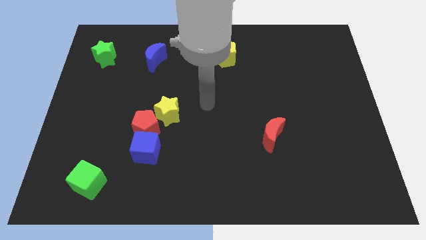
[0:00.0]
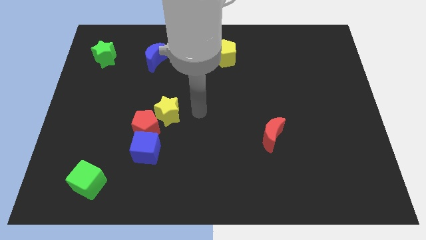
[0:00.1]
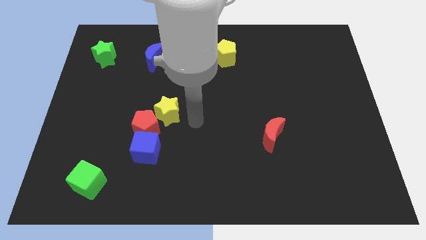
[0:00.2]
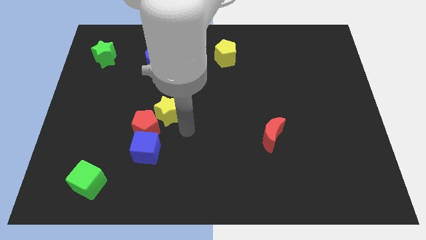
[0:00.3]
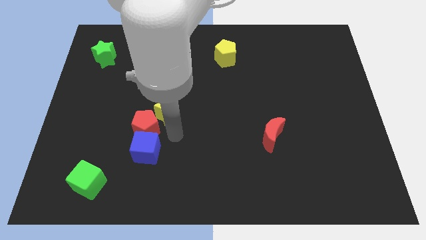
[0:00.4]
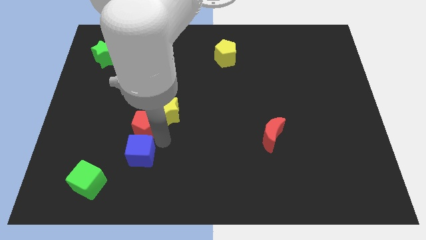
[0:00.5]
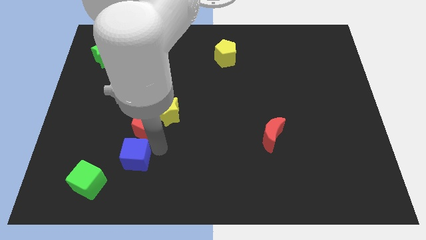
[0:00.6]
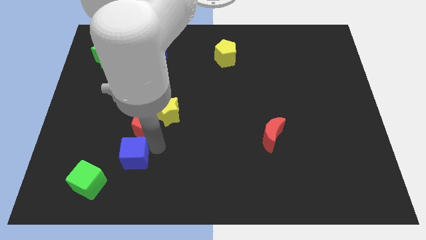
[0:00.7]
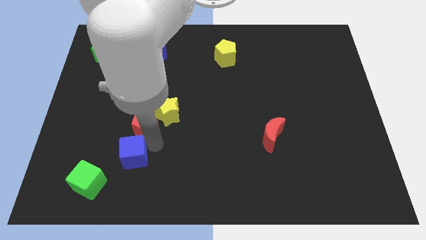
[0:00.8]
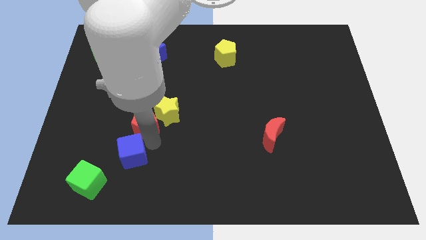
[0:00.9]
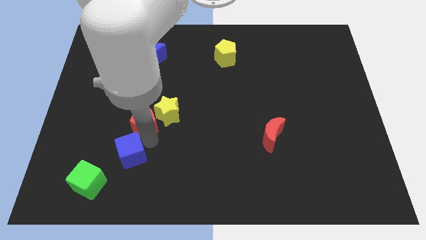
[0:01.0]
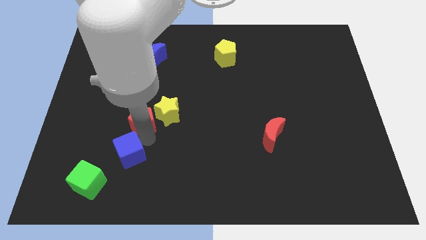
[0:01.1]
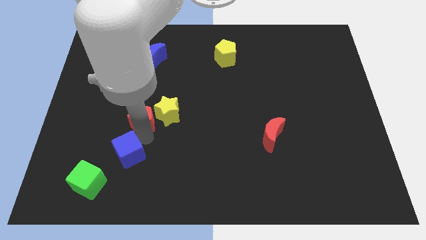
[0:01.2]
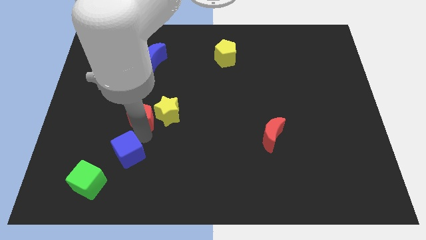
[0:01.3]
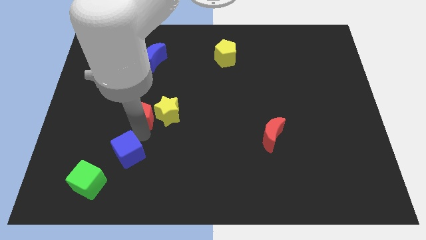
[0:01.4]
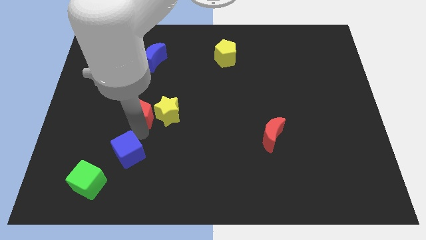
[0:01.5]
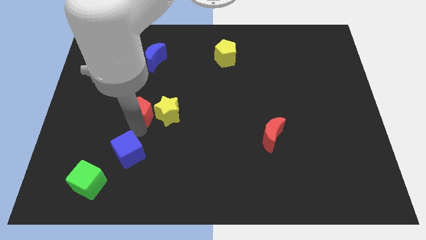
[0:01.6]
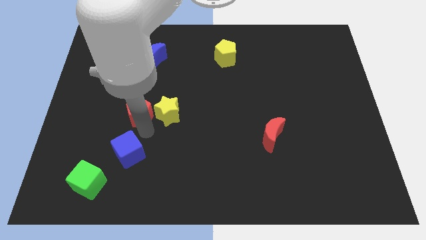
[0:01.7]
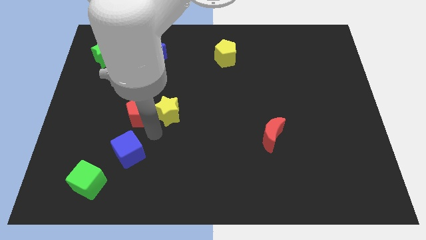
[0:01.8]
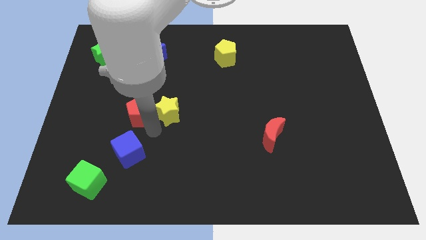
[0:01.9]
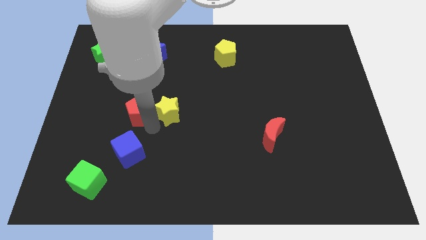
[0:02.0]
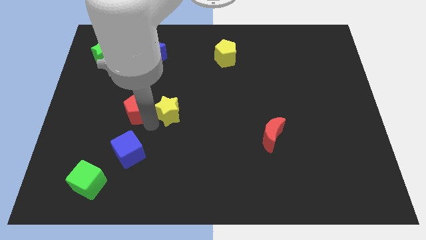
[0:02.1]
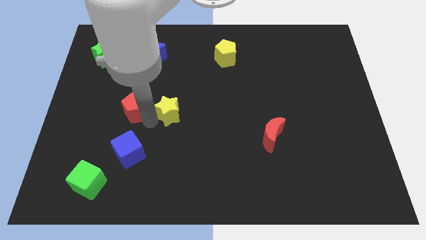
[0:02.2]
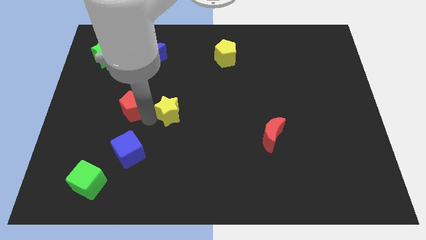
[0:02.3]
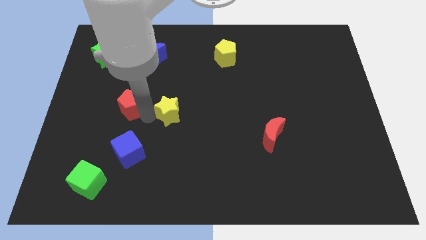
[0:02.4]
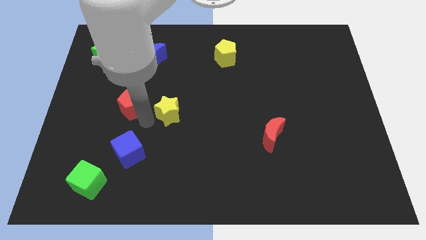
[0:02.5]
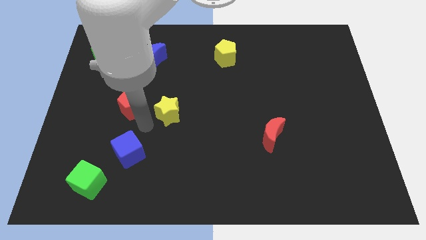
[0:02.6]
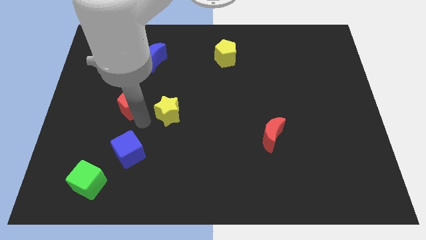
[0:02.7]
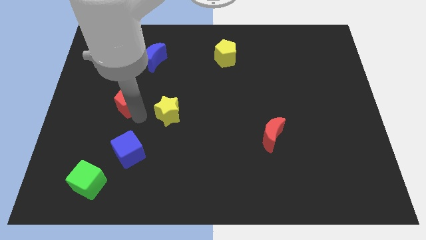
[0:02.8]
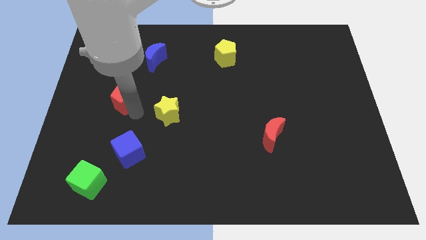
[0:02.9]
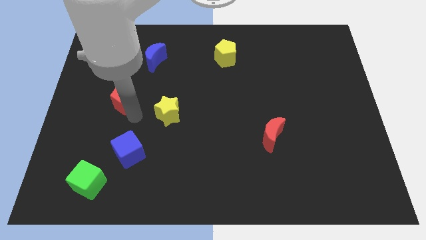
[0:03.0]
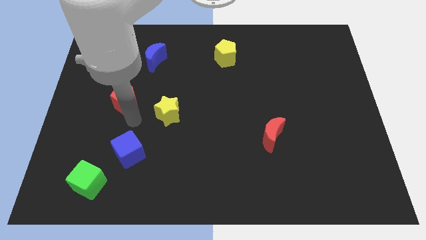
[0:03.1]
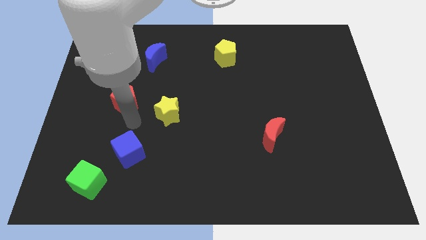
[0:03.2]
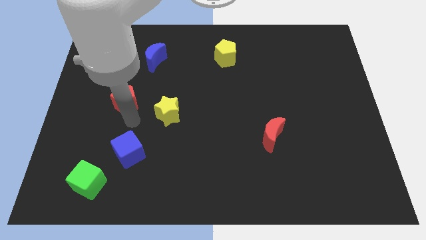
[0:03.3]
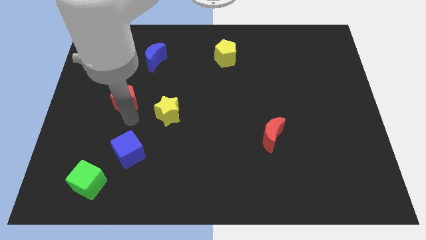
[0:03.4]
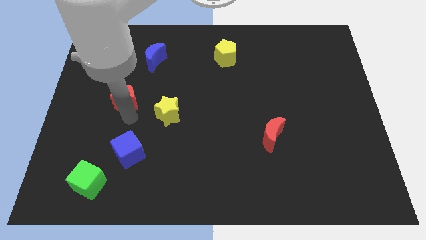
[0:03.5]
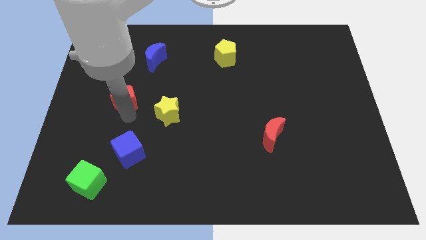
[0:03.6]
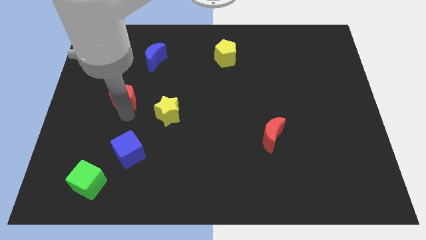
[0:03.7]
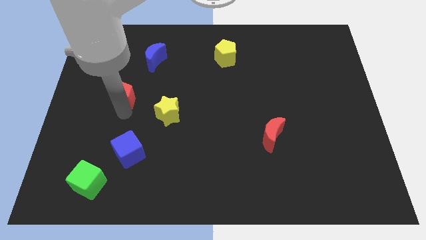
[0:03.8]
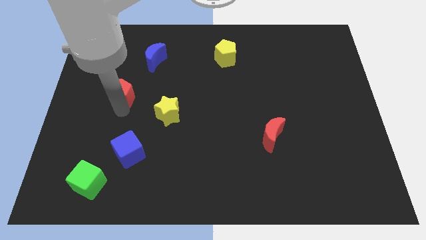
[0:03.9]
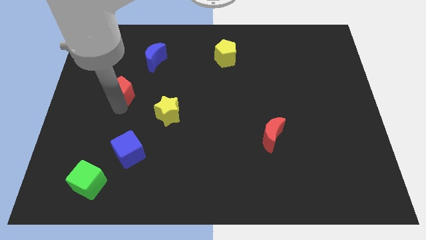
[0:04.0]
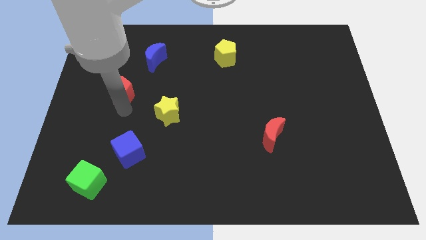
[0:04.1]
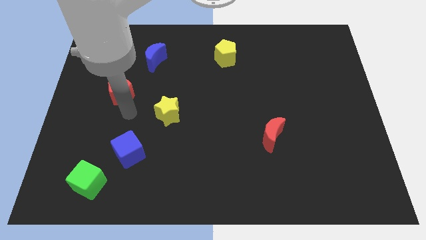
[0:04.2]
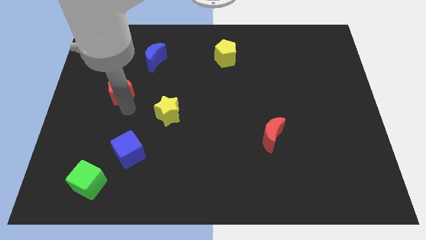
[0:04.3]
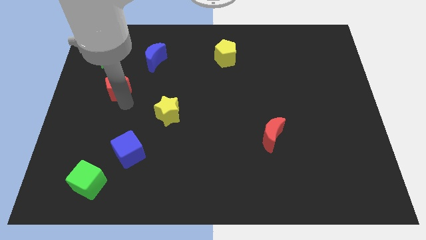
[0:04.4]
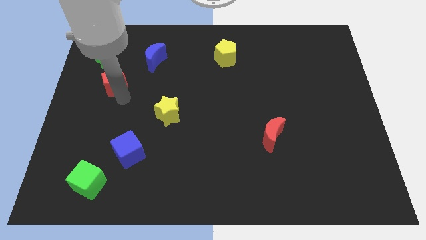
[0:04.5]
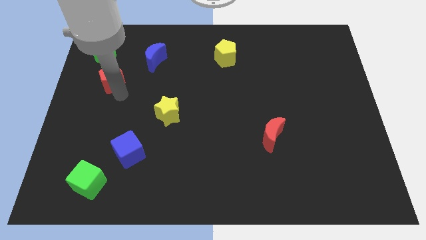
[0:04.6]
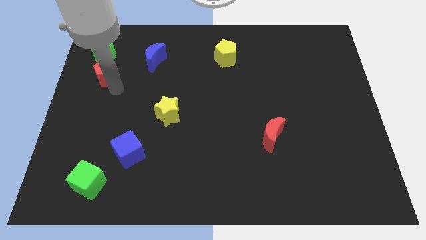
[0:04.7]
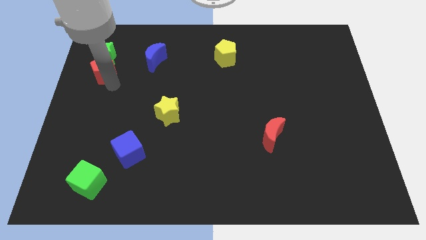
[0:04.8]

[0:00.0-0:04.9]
push the red pentagon close to the green star

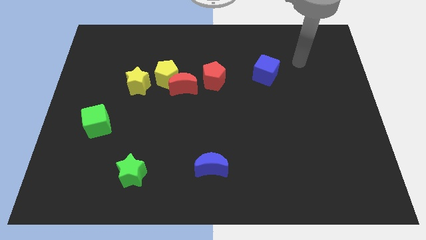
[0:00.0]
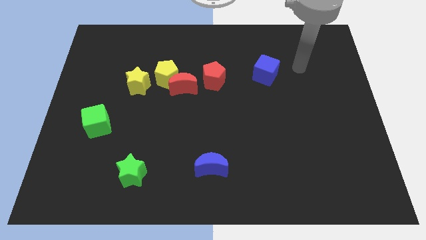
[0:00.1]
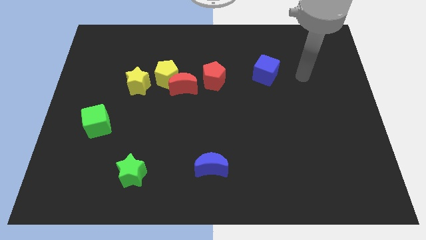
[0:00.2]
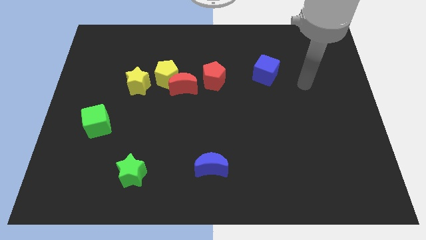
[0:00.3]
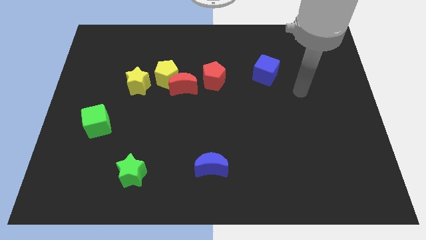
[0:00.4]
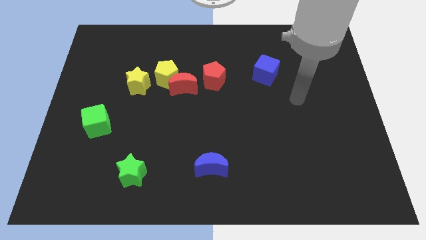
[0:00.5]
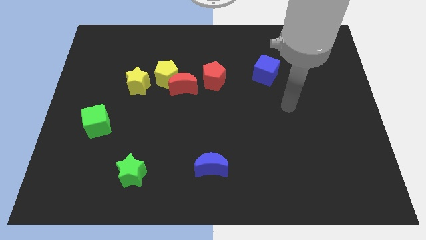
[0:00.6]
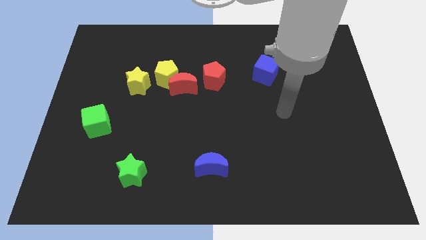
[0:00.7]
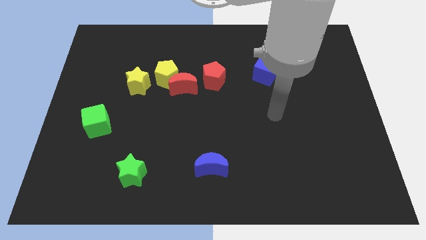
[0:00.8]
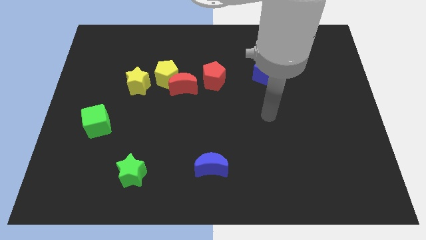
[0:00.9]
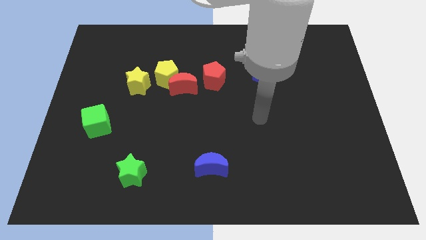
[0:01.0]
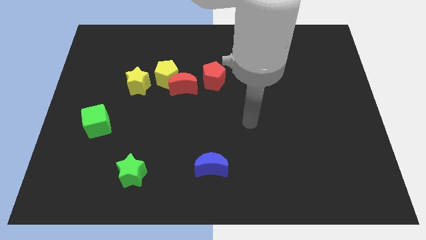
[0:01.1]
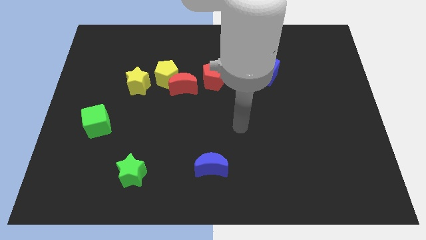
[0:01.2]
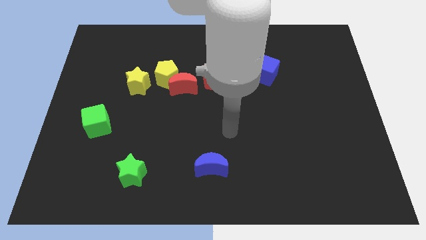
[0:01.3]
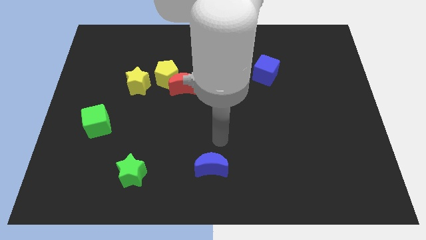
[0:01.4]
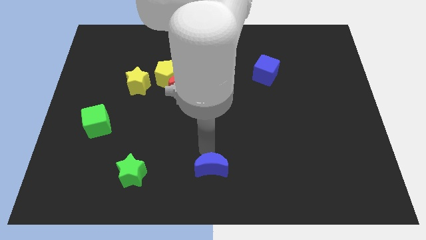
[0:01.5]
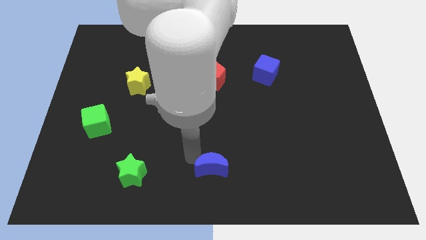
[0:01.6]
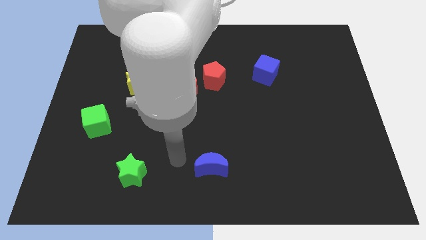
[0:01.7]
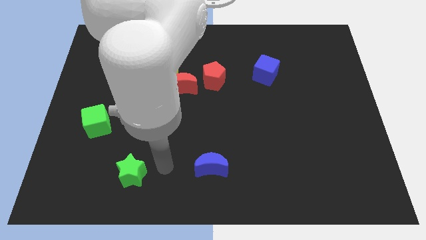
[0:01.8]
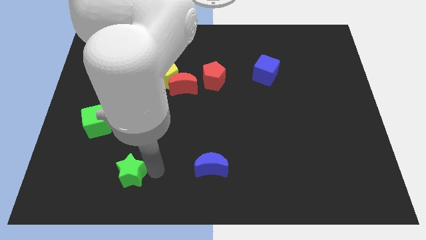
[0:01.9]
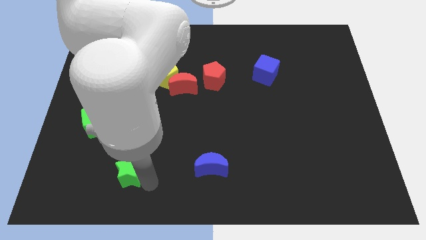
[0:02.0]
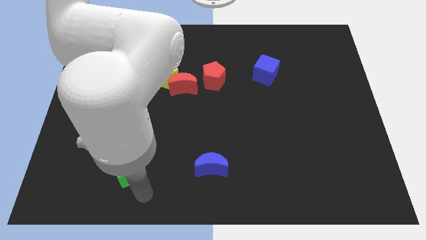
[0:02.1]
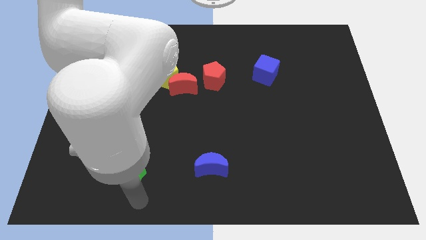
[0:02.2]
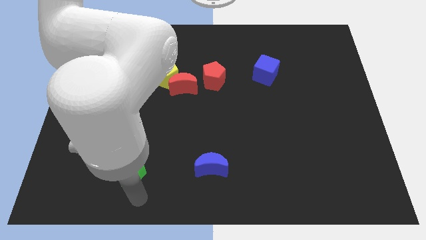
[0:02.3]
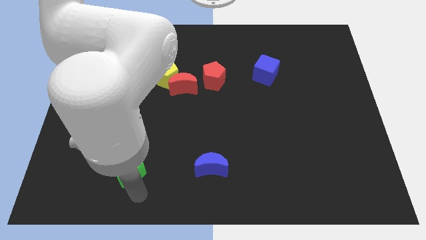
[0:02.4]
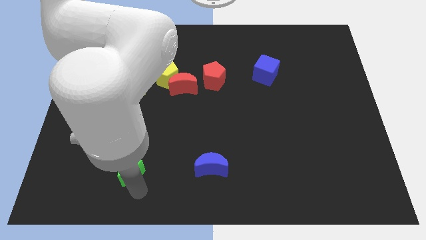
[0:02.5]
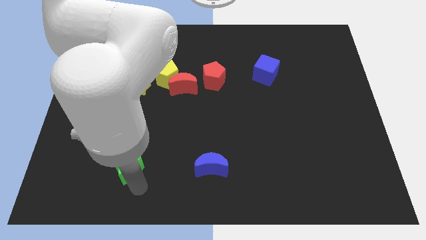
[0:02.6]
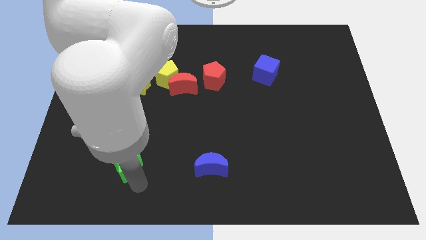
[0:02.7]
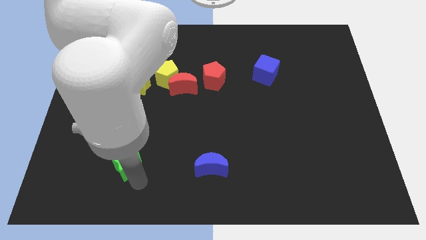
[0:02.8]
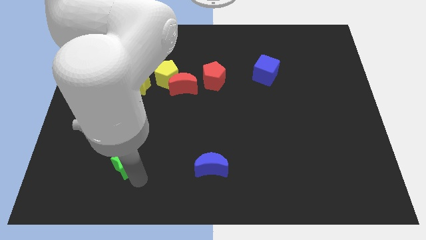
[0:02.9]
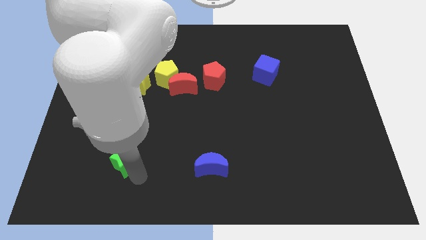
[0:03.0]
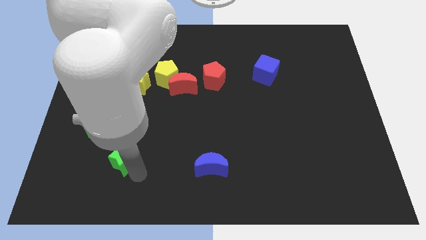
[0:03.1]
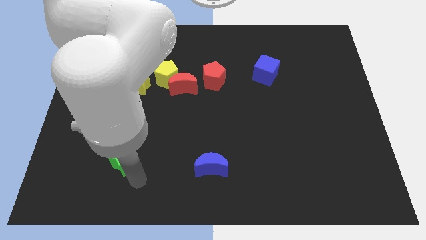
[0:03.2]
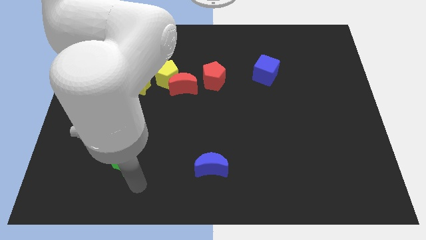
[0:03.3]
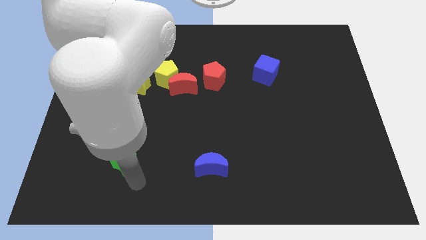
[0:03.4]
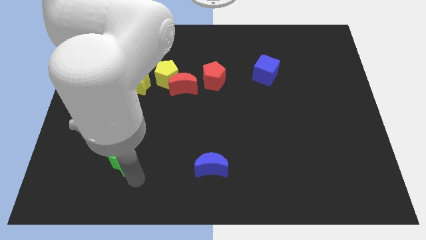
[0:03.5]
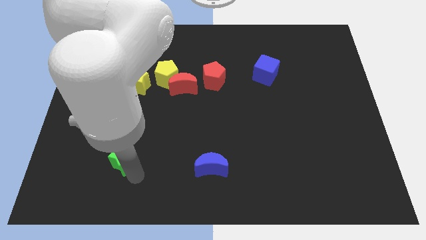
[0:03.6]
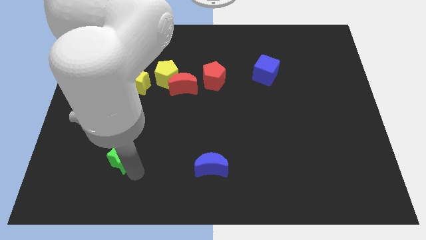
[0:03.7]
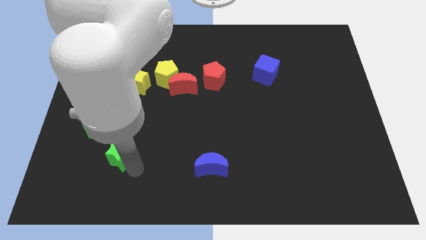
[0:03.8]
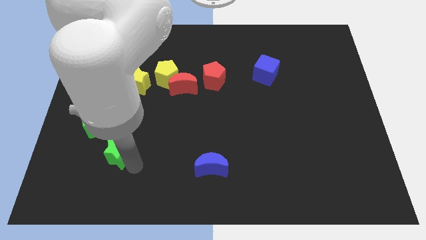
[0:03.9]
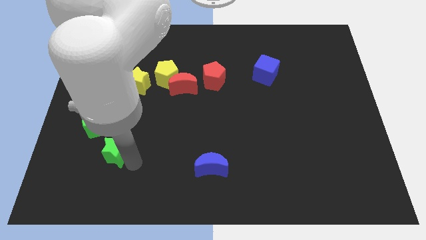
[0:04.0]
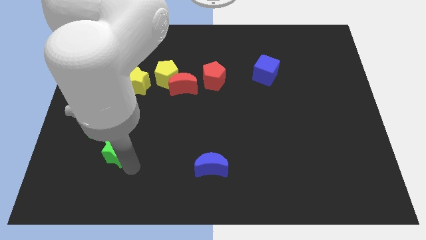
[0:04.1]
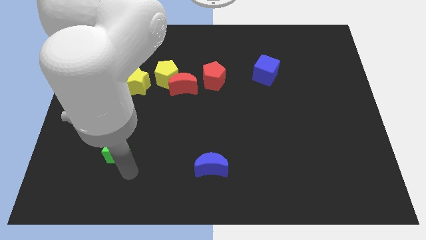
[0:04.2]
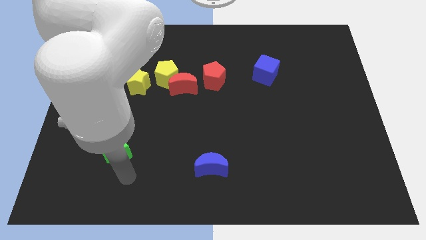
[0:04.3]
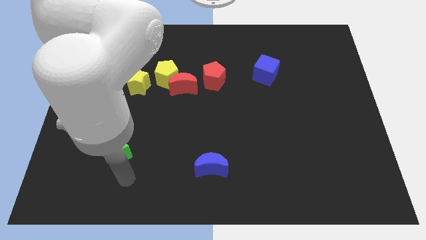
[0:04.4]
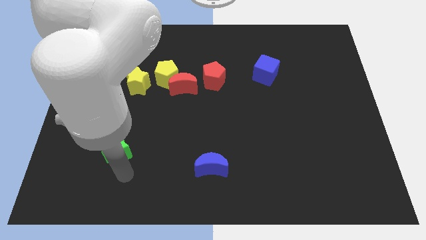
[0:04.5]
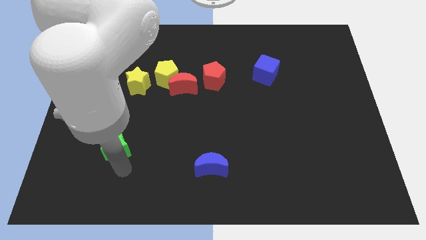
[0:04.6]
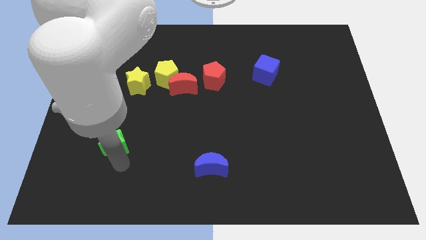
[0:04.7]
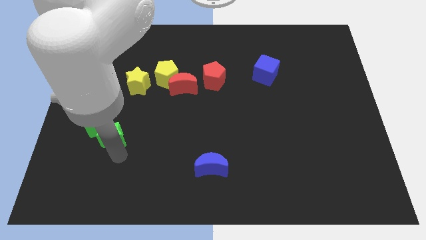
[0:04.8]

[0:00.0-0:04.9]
put the green star close to the green cube
